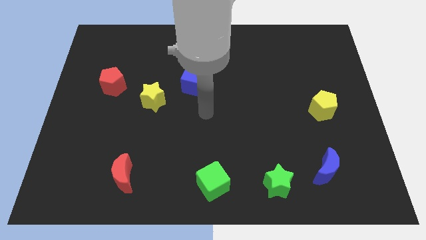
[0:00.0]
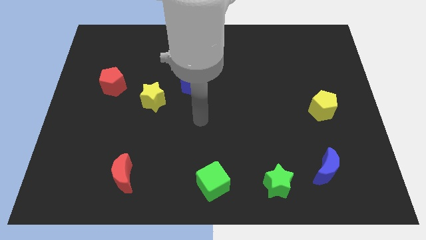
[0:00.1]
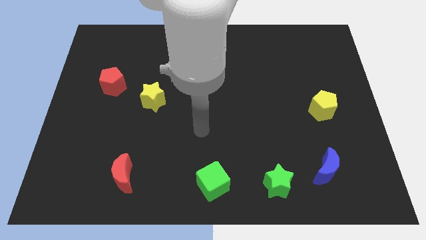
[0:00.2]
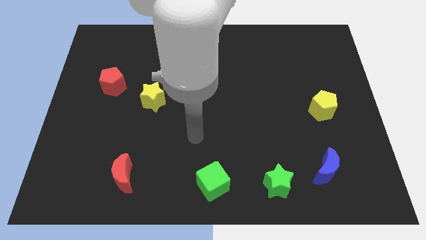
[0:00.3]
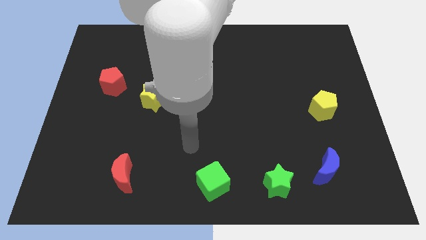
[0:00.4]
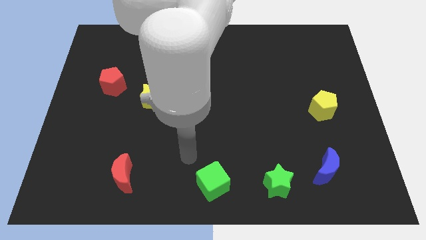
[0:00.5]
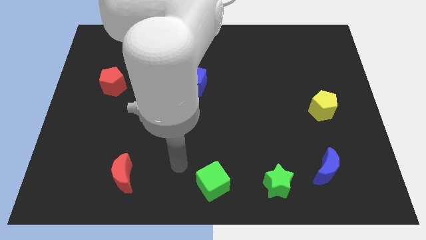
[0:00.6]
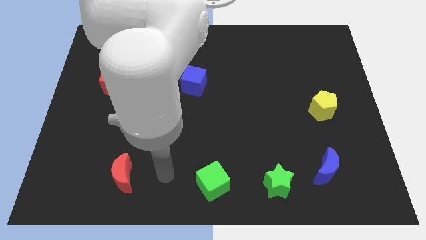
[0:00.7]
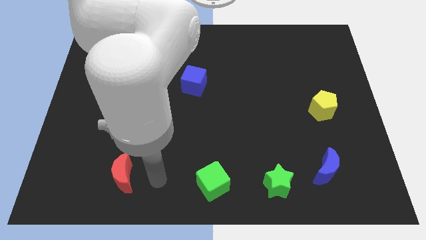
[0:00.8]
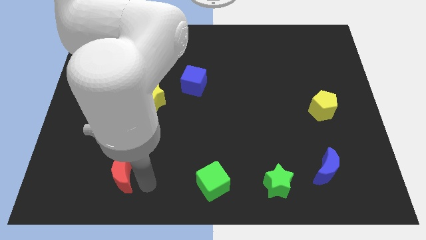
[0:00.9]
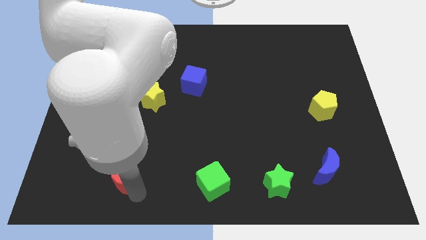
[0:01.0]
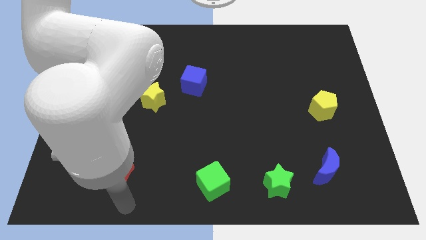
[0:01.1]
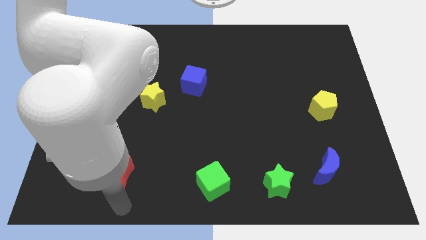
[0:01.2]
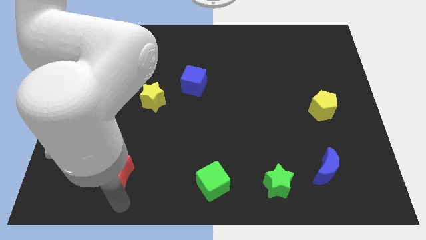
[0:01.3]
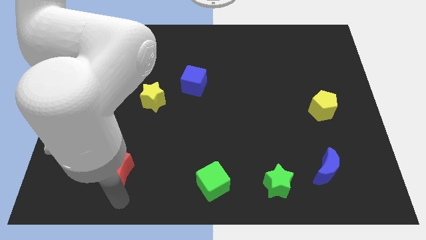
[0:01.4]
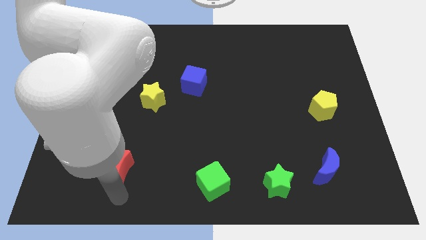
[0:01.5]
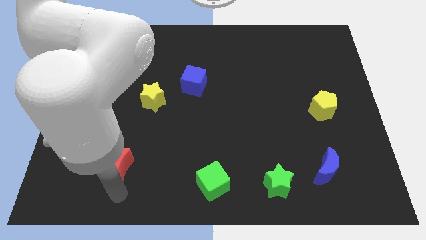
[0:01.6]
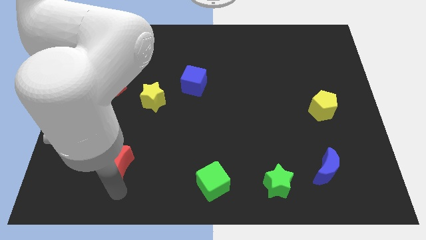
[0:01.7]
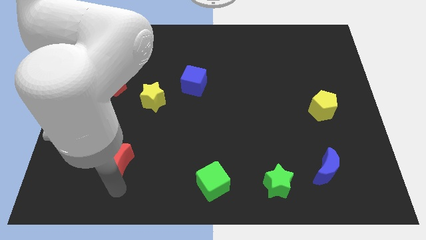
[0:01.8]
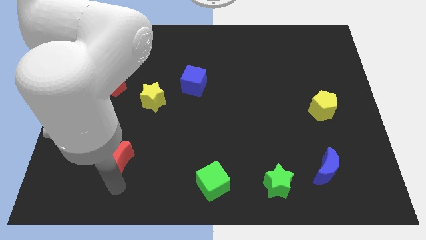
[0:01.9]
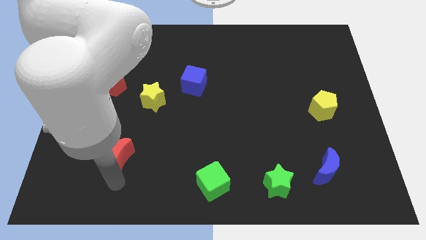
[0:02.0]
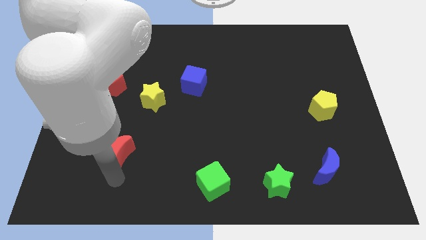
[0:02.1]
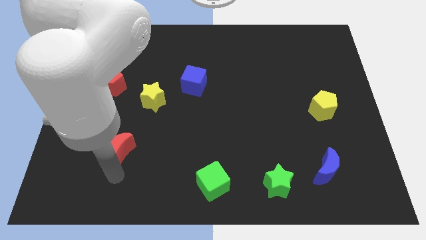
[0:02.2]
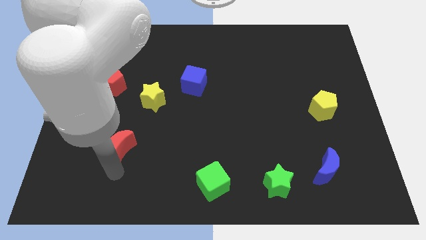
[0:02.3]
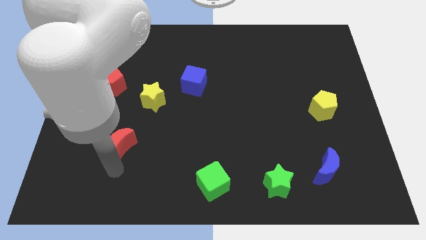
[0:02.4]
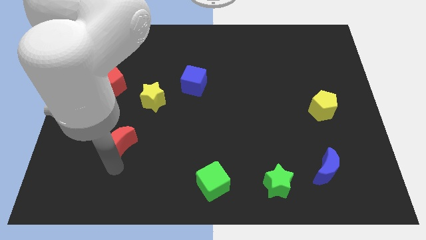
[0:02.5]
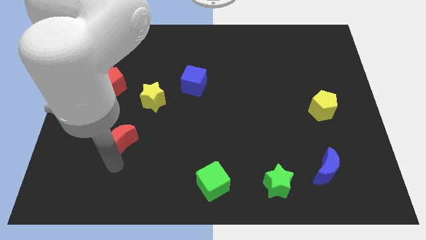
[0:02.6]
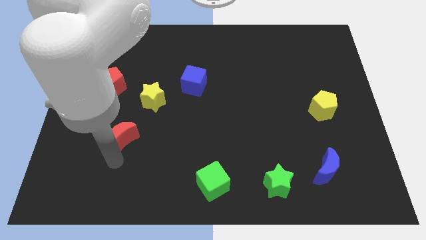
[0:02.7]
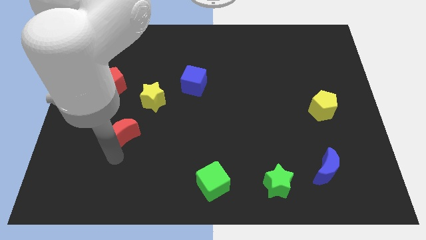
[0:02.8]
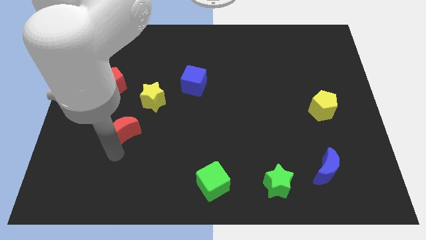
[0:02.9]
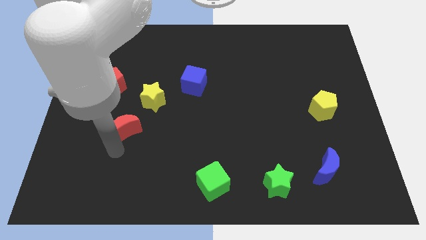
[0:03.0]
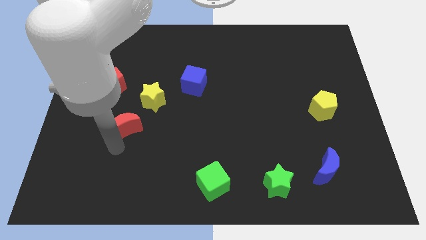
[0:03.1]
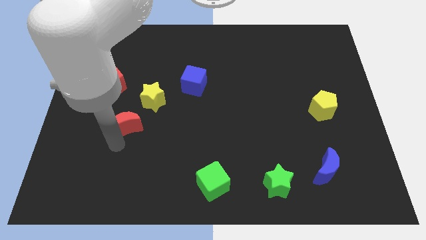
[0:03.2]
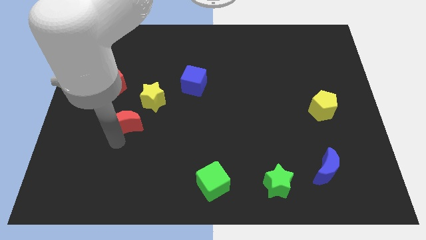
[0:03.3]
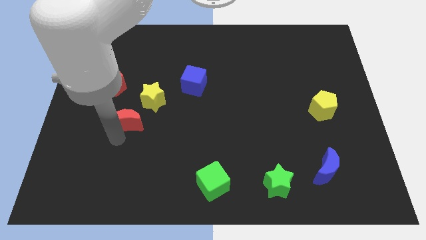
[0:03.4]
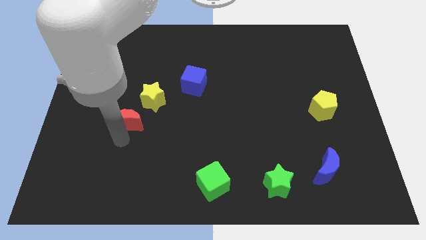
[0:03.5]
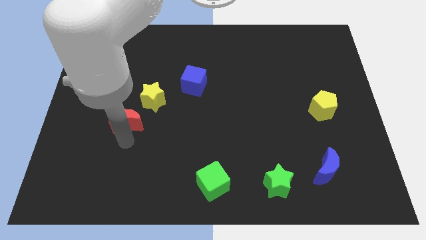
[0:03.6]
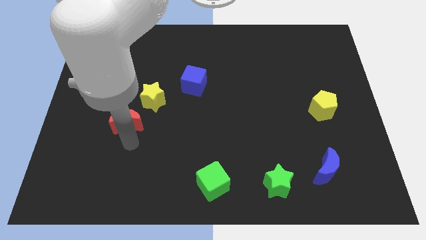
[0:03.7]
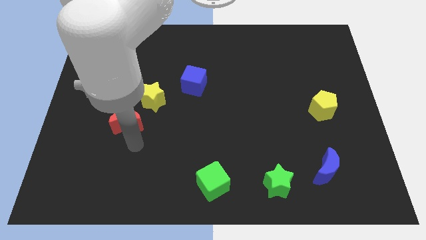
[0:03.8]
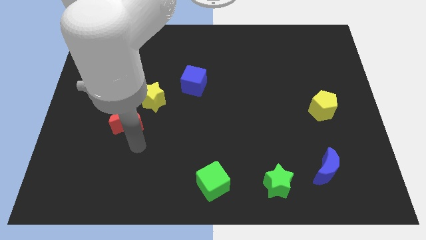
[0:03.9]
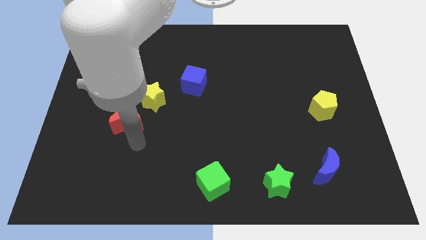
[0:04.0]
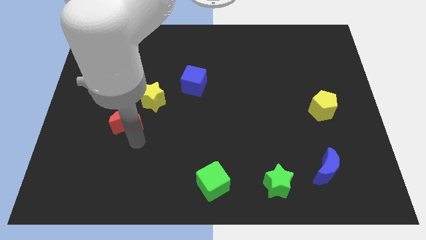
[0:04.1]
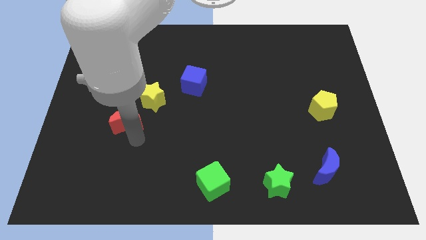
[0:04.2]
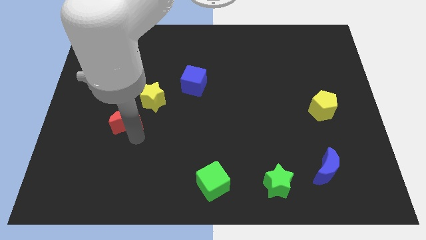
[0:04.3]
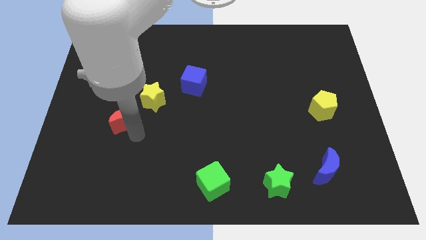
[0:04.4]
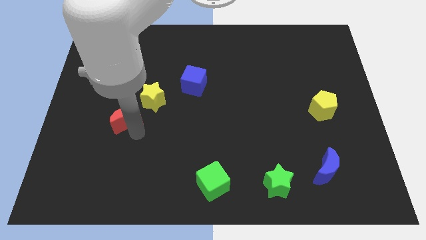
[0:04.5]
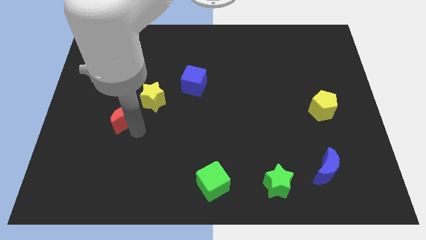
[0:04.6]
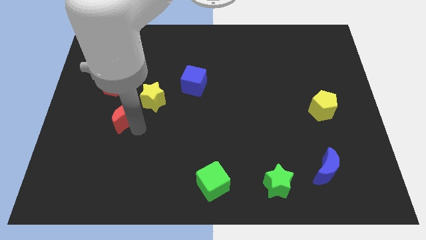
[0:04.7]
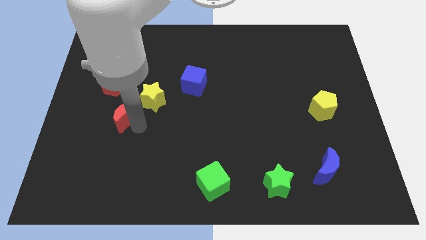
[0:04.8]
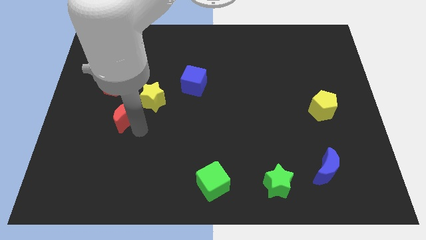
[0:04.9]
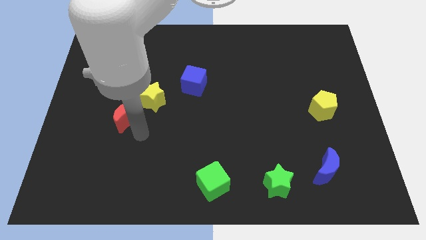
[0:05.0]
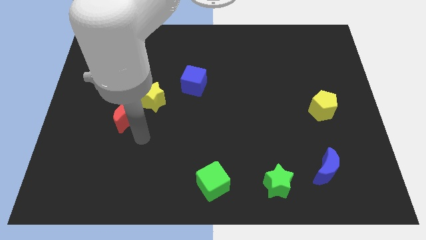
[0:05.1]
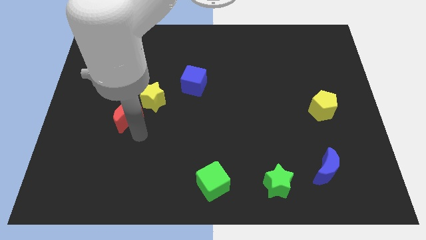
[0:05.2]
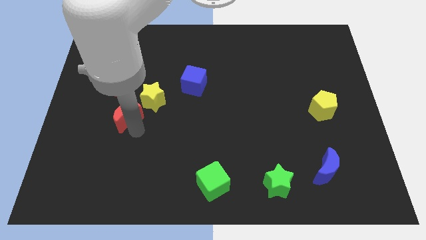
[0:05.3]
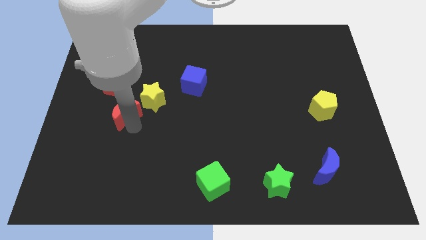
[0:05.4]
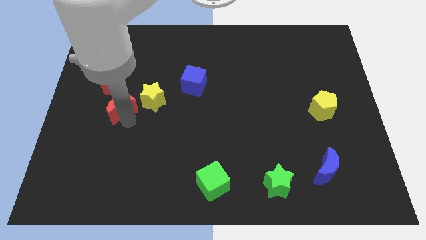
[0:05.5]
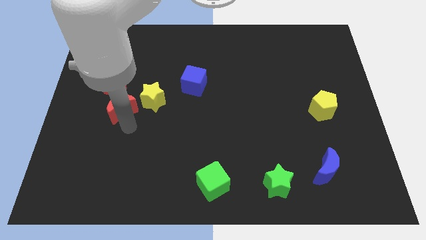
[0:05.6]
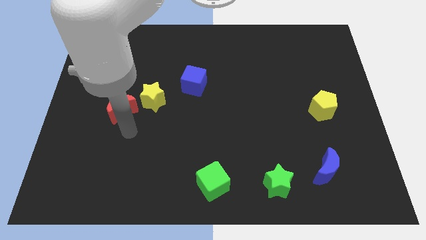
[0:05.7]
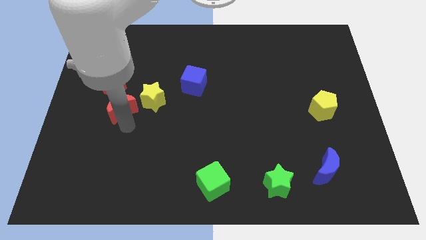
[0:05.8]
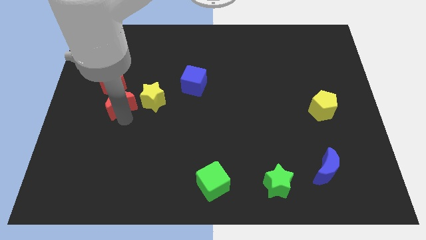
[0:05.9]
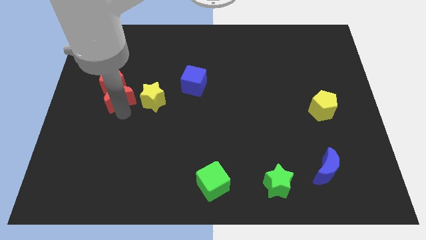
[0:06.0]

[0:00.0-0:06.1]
move the red moon to the red pentagon

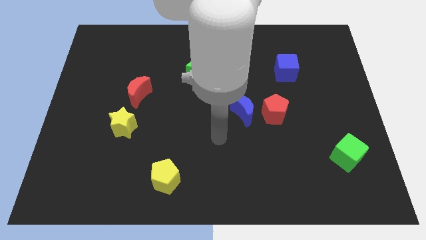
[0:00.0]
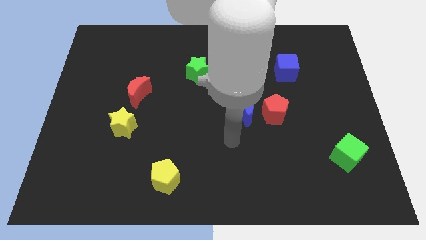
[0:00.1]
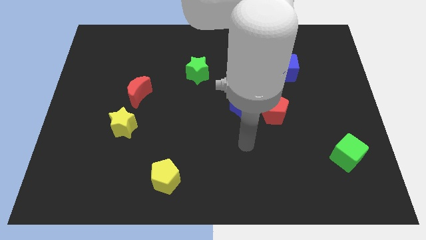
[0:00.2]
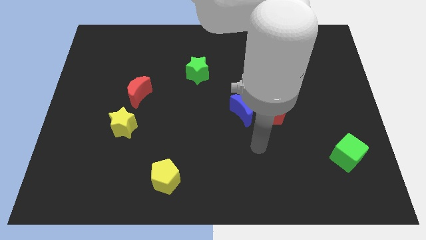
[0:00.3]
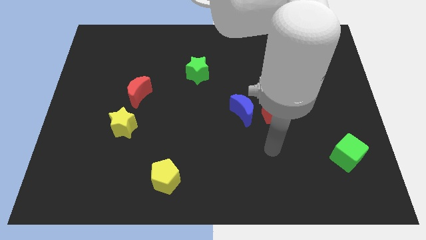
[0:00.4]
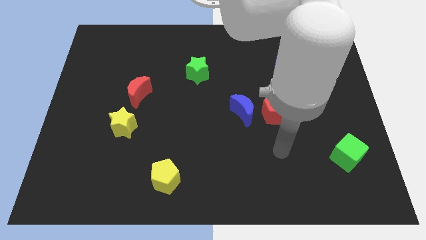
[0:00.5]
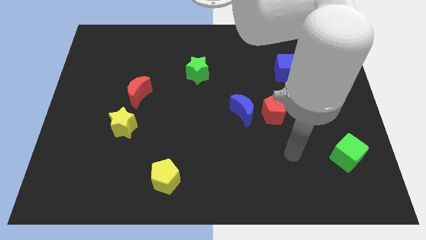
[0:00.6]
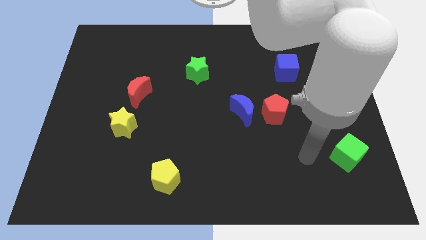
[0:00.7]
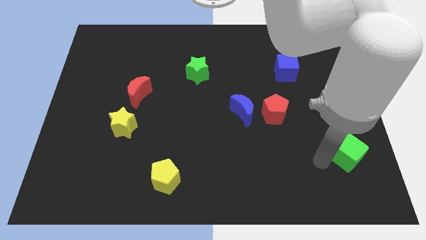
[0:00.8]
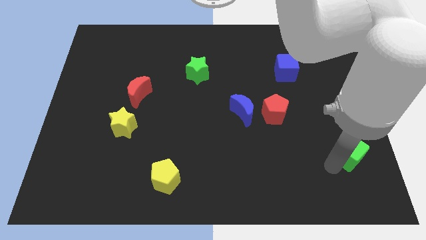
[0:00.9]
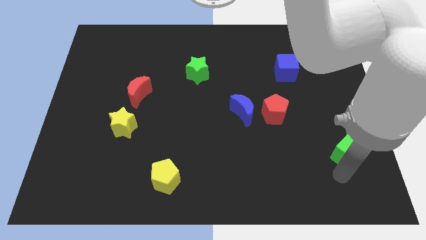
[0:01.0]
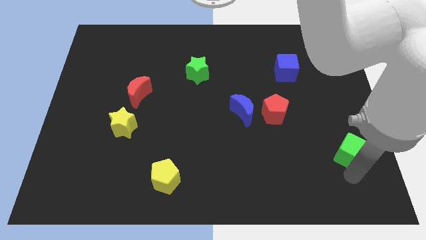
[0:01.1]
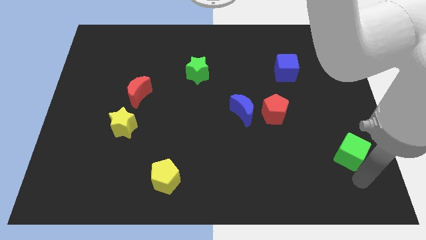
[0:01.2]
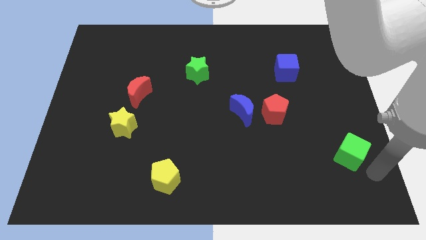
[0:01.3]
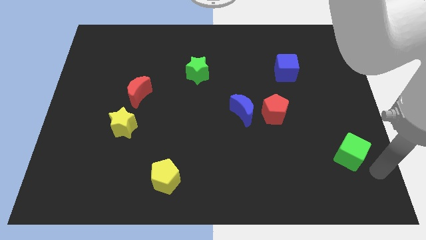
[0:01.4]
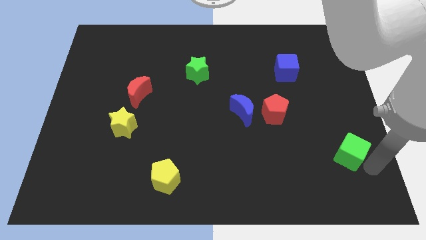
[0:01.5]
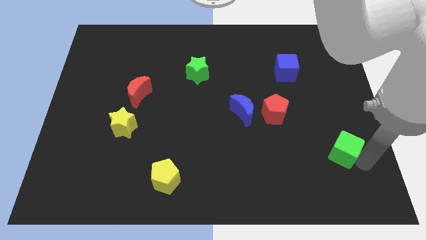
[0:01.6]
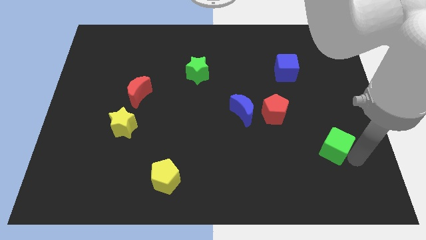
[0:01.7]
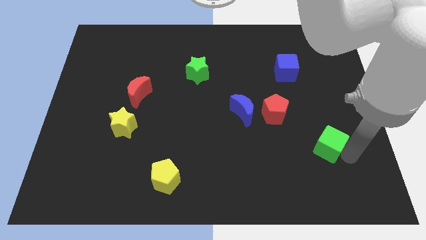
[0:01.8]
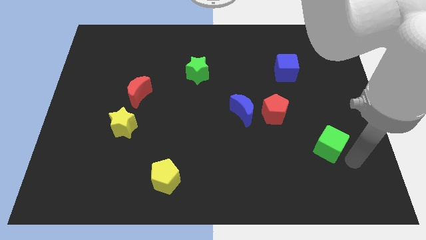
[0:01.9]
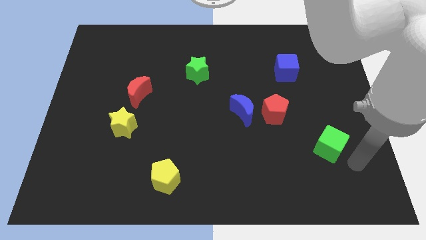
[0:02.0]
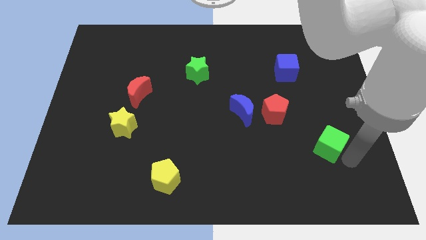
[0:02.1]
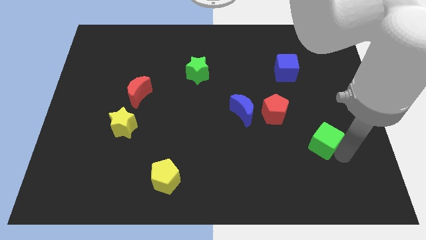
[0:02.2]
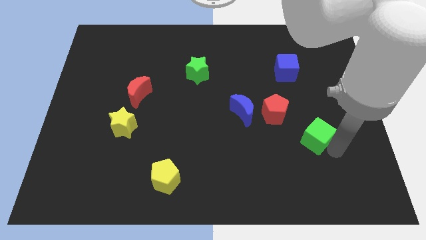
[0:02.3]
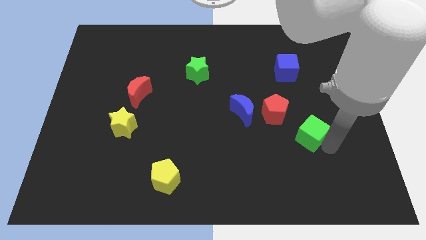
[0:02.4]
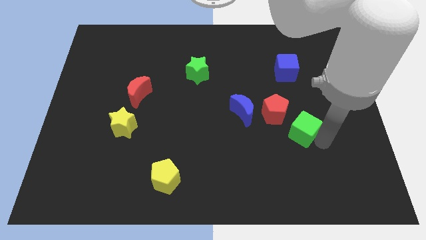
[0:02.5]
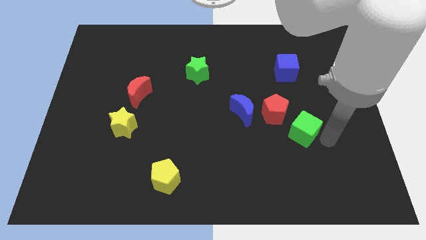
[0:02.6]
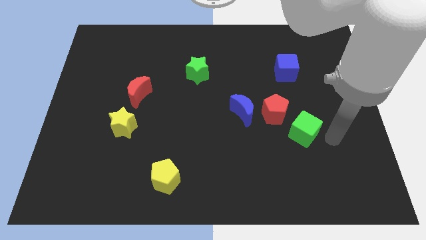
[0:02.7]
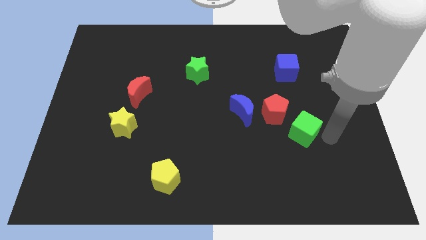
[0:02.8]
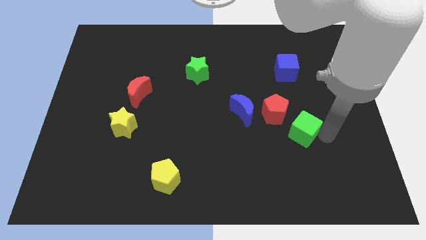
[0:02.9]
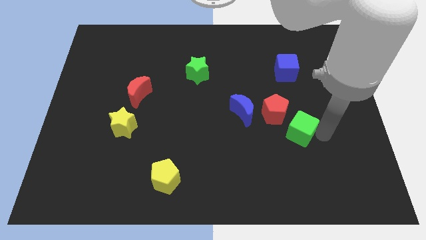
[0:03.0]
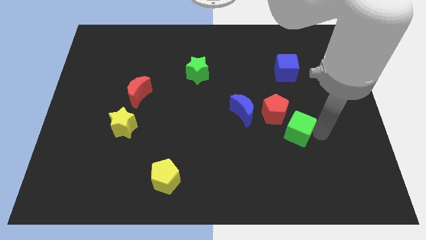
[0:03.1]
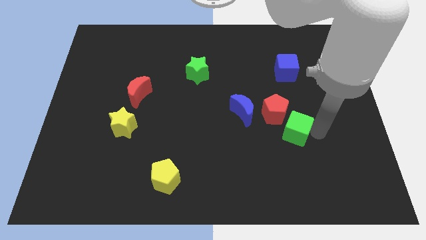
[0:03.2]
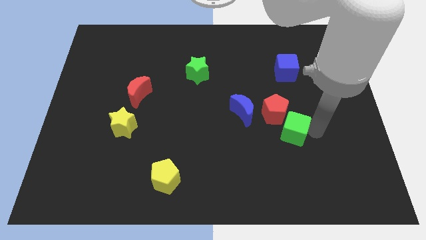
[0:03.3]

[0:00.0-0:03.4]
push the green cube close to the red pentagon
